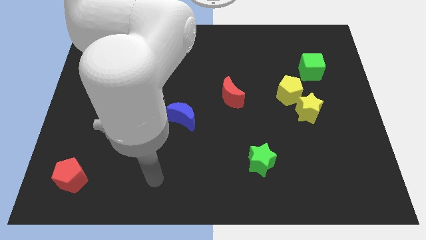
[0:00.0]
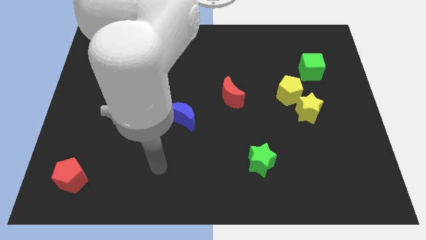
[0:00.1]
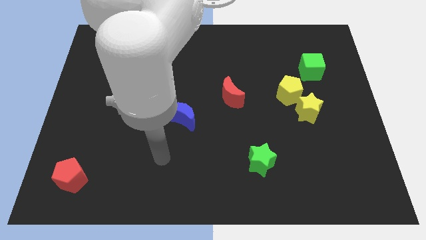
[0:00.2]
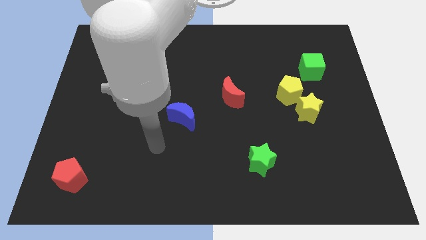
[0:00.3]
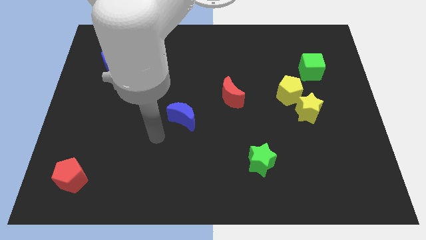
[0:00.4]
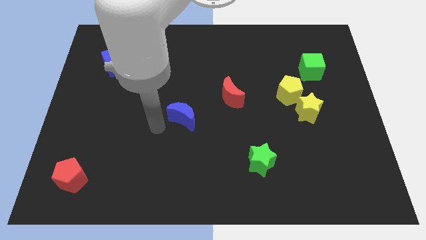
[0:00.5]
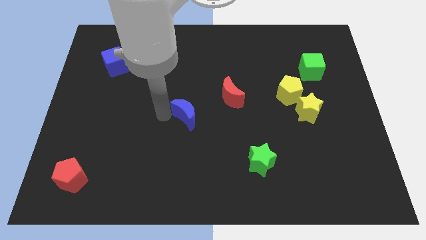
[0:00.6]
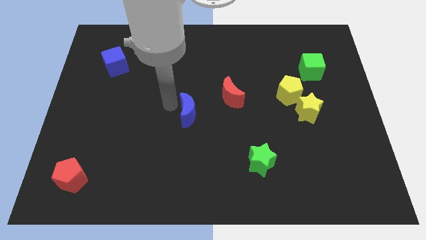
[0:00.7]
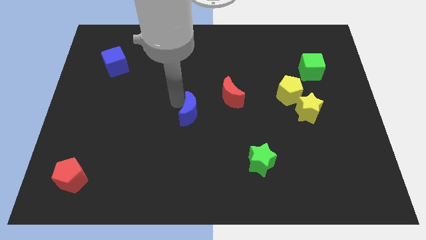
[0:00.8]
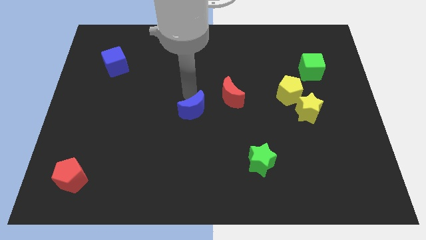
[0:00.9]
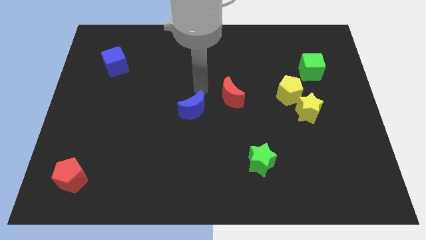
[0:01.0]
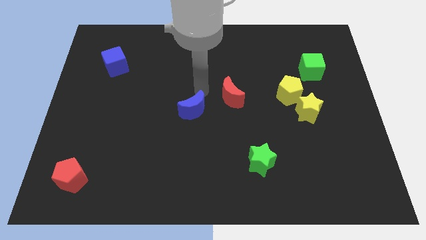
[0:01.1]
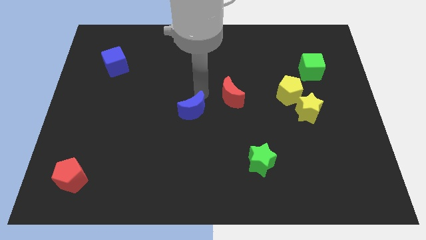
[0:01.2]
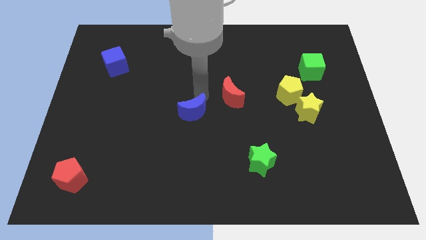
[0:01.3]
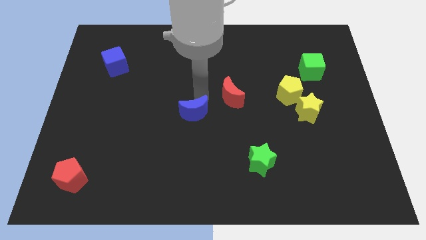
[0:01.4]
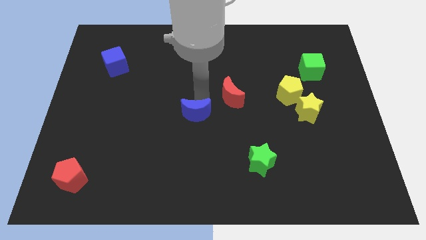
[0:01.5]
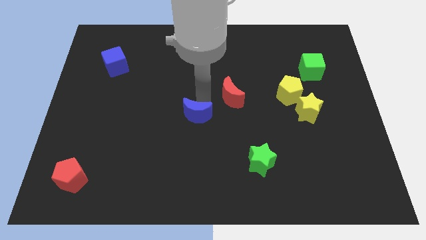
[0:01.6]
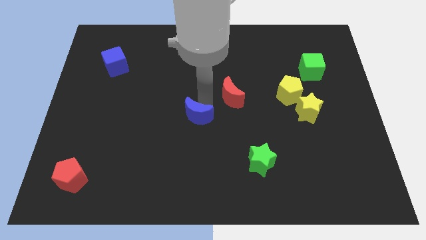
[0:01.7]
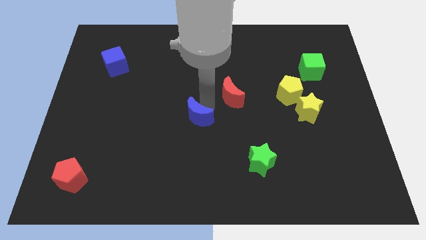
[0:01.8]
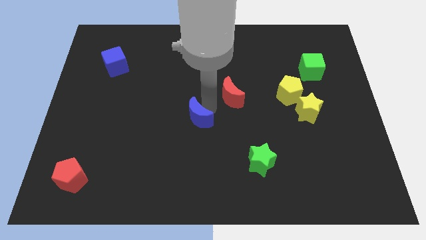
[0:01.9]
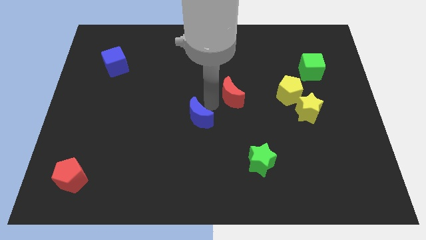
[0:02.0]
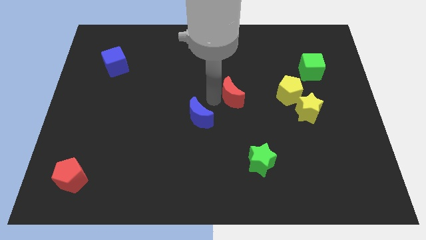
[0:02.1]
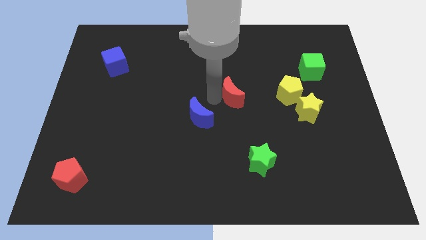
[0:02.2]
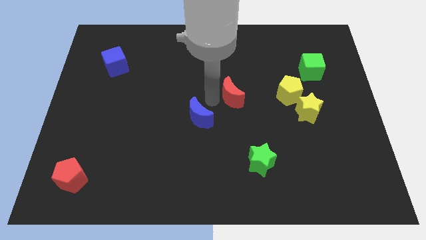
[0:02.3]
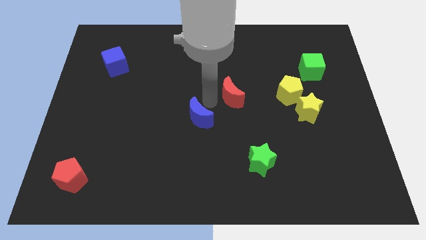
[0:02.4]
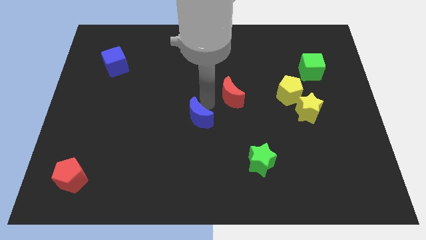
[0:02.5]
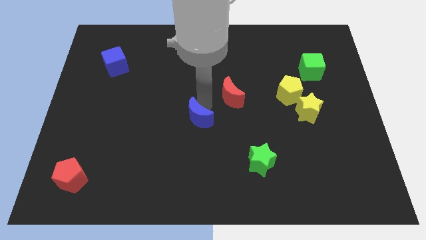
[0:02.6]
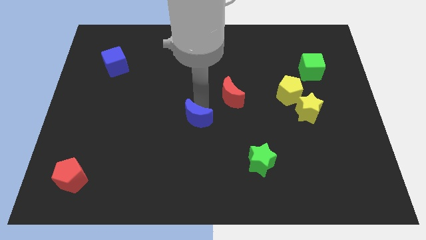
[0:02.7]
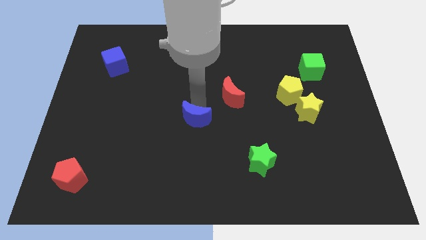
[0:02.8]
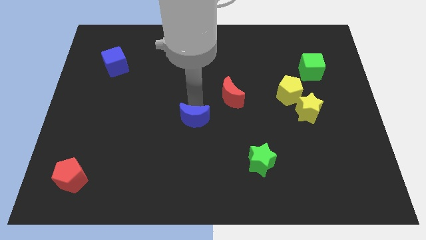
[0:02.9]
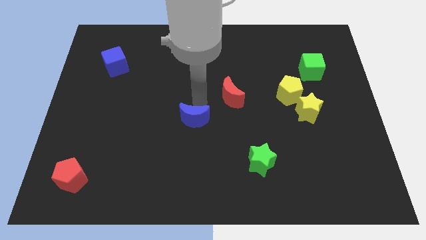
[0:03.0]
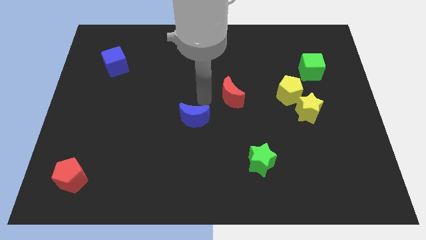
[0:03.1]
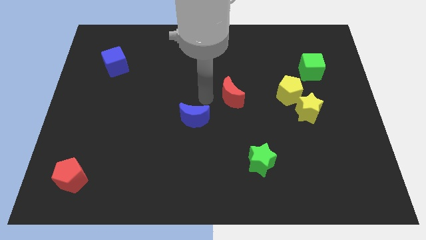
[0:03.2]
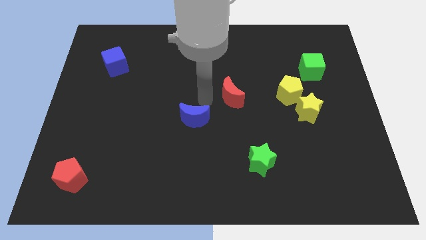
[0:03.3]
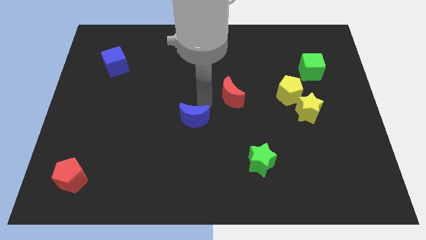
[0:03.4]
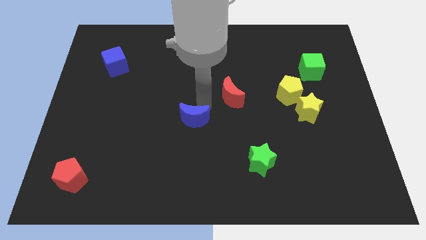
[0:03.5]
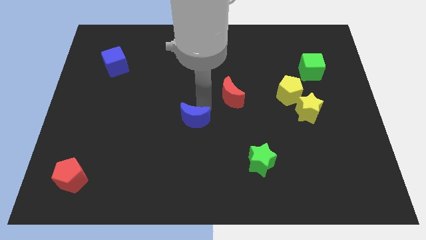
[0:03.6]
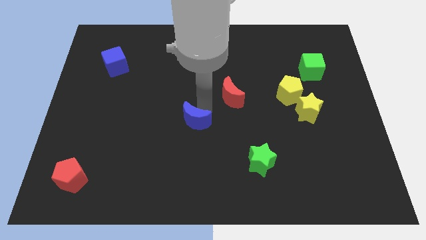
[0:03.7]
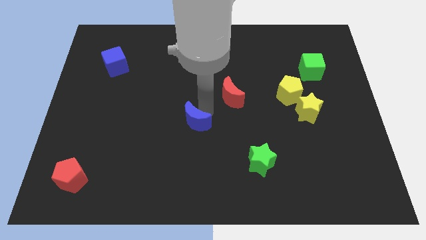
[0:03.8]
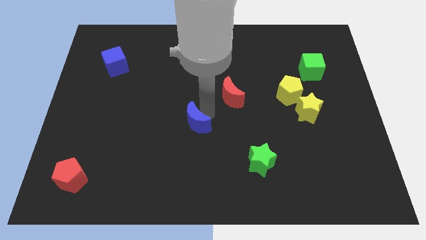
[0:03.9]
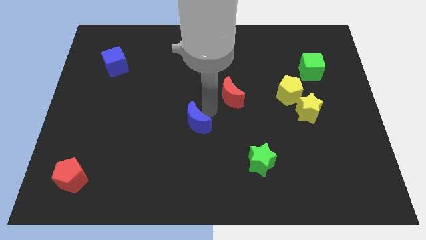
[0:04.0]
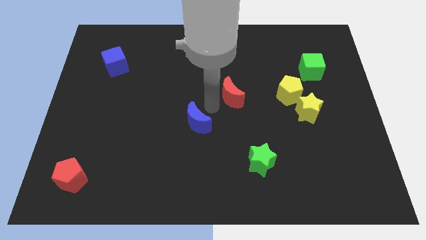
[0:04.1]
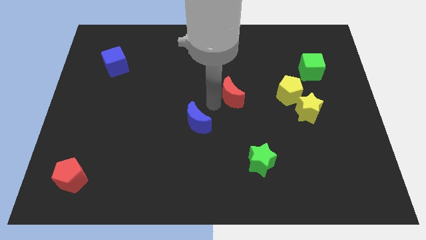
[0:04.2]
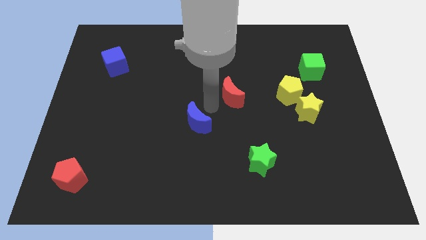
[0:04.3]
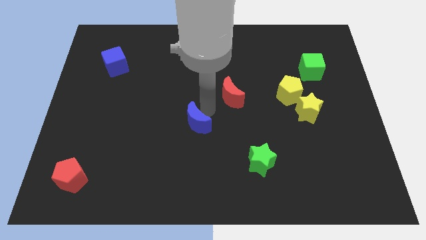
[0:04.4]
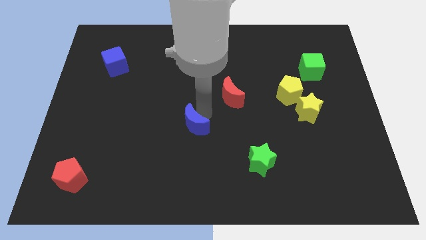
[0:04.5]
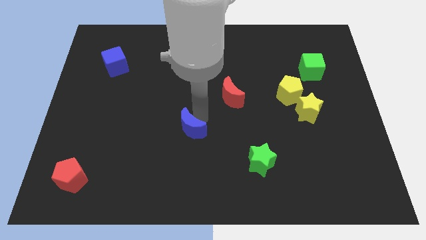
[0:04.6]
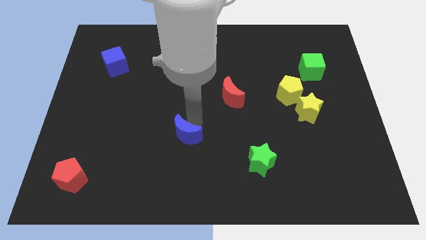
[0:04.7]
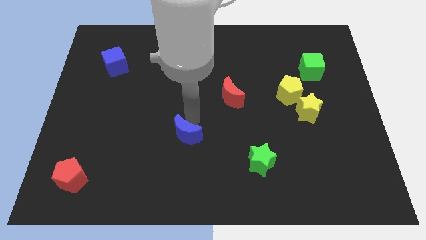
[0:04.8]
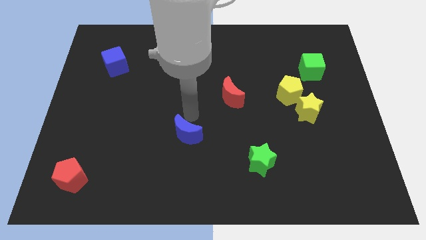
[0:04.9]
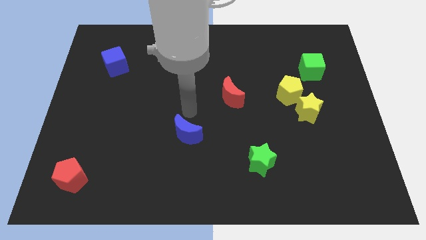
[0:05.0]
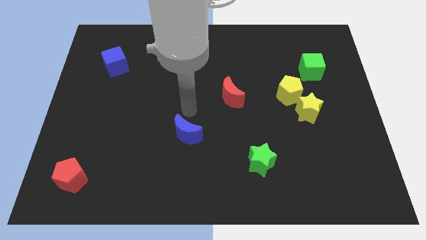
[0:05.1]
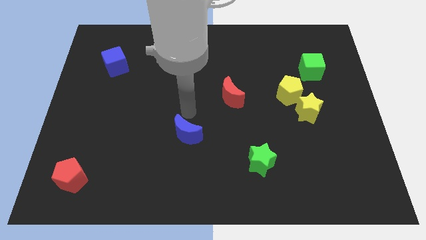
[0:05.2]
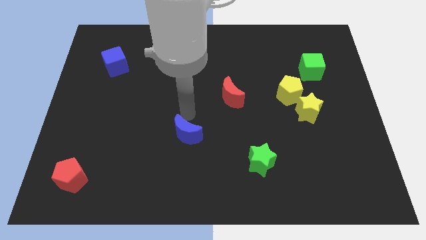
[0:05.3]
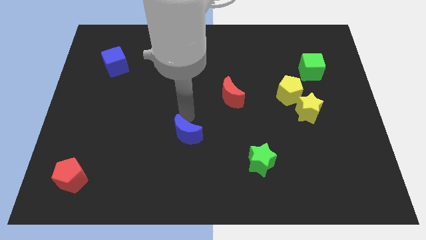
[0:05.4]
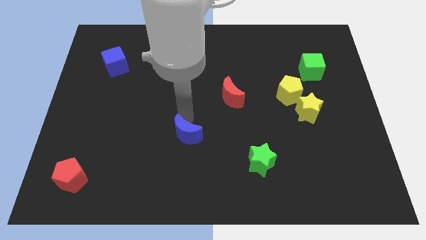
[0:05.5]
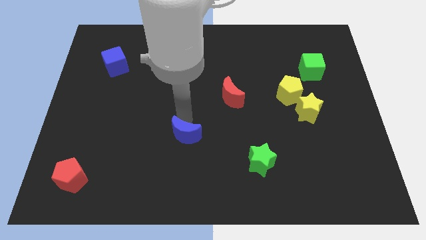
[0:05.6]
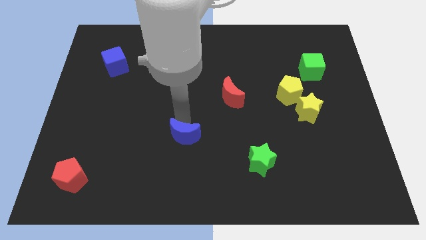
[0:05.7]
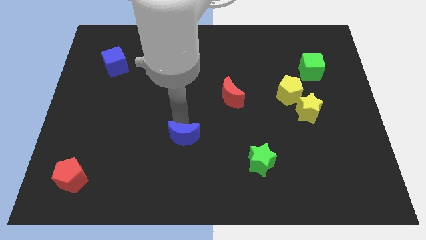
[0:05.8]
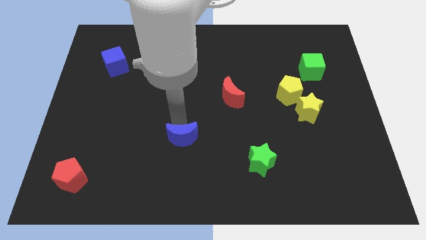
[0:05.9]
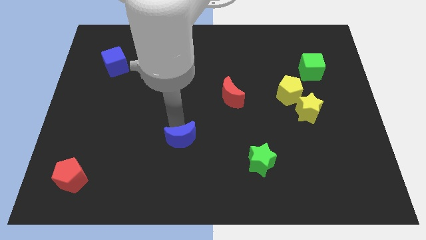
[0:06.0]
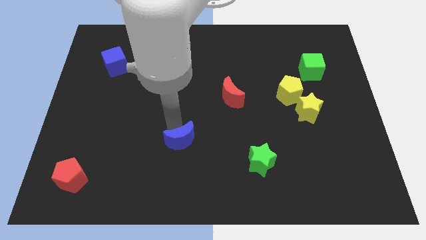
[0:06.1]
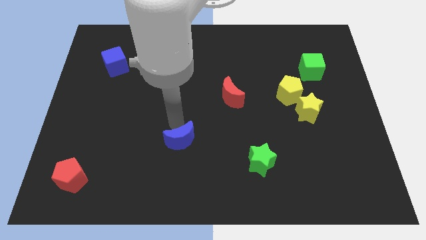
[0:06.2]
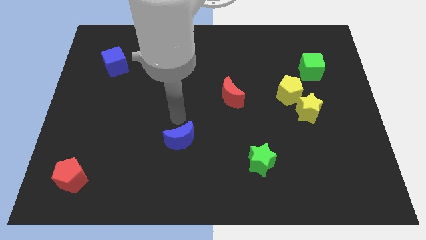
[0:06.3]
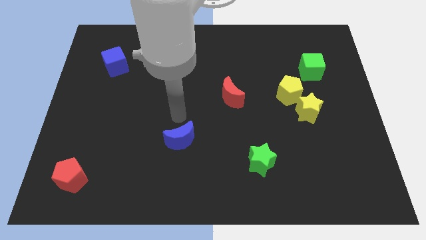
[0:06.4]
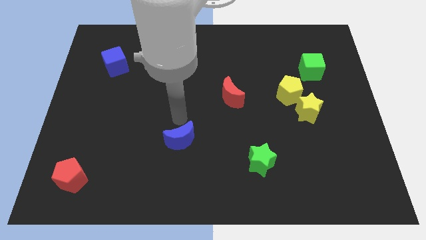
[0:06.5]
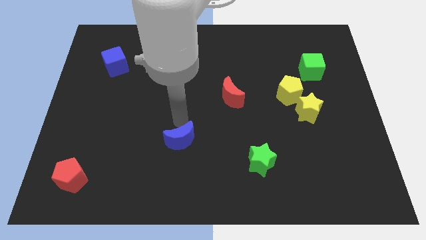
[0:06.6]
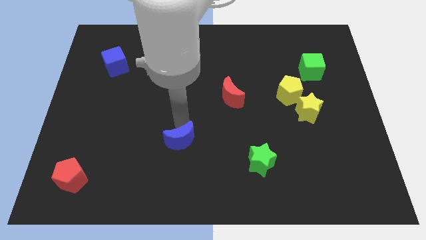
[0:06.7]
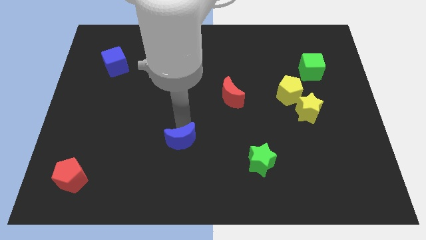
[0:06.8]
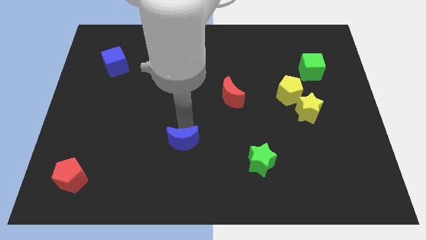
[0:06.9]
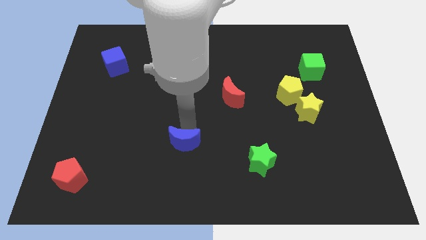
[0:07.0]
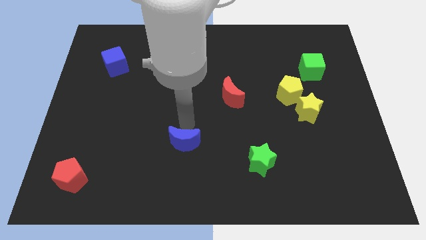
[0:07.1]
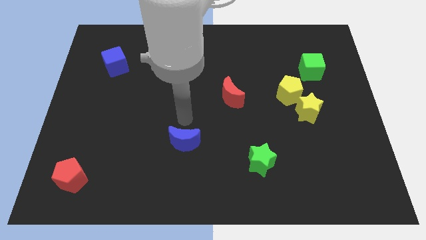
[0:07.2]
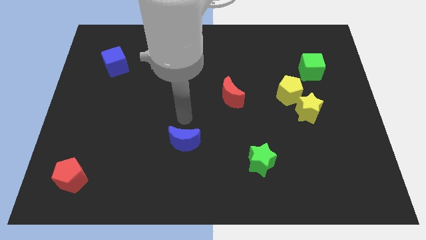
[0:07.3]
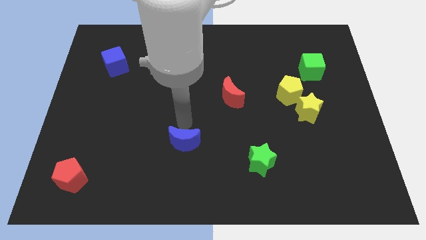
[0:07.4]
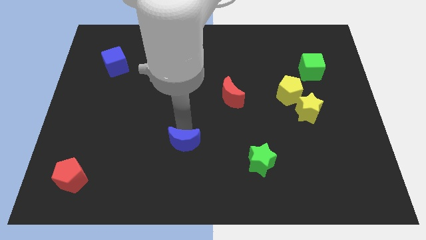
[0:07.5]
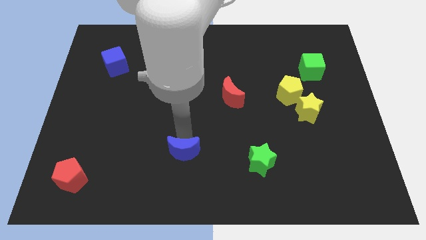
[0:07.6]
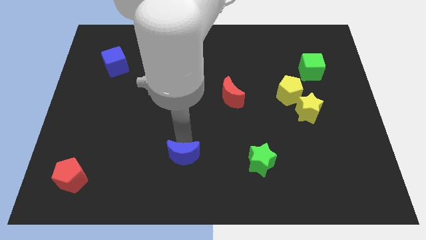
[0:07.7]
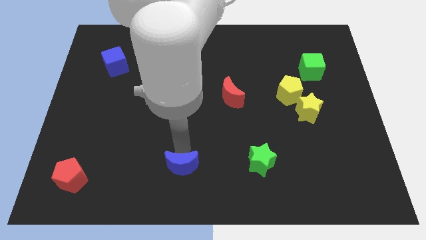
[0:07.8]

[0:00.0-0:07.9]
push the blue moon to the bottom side
